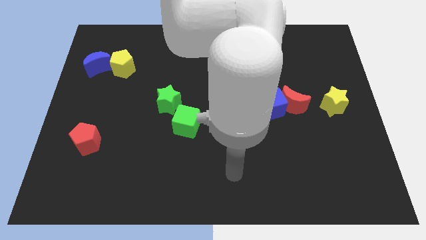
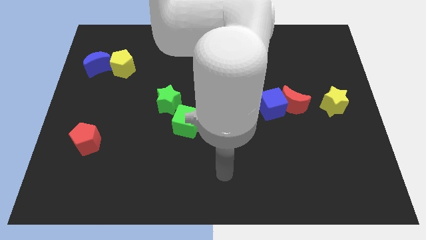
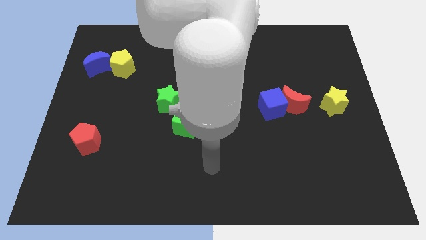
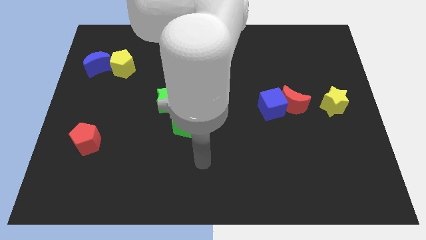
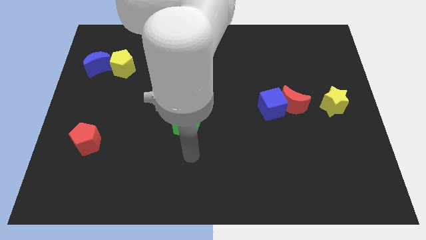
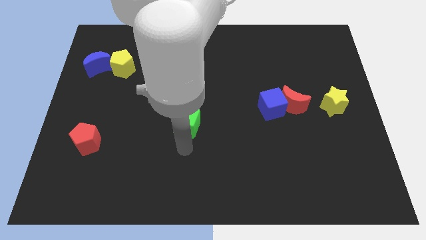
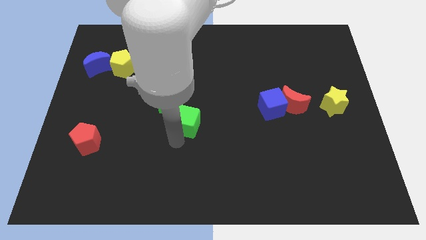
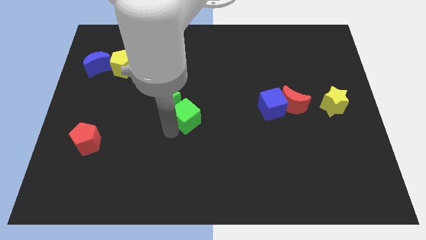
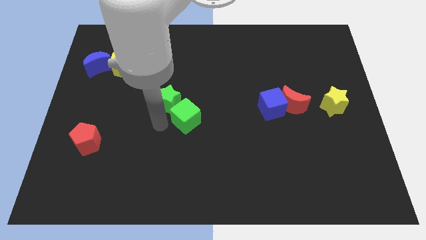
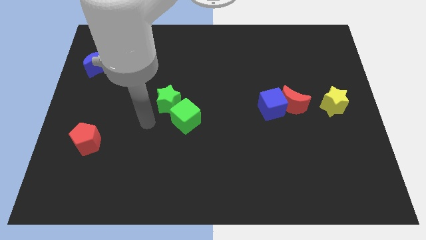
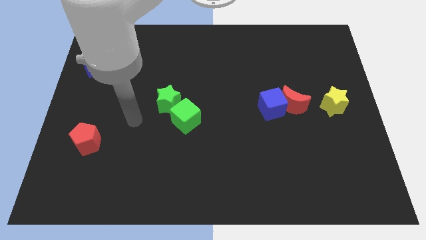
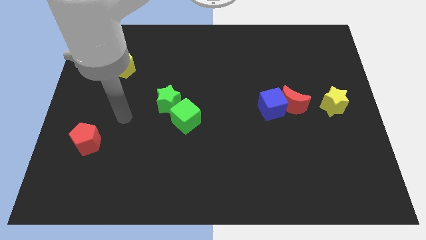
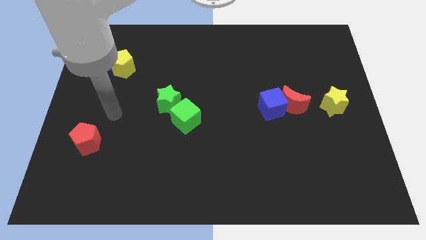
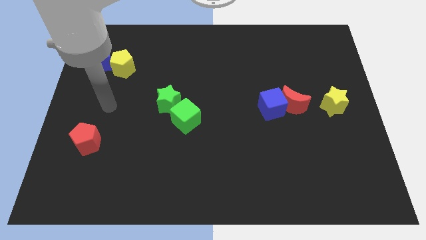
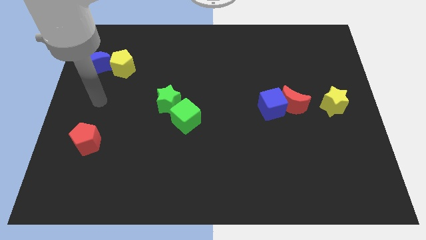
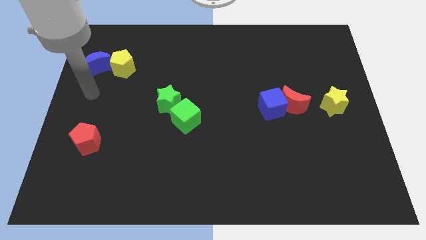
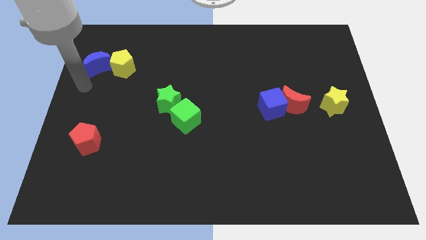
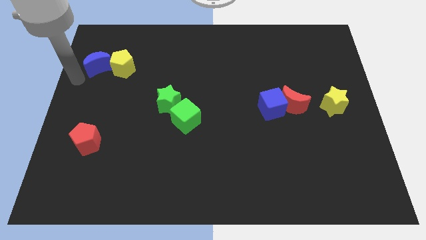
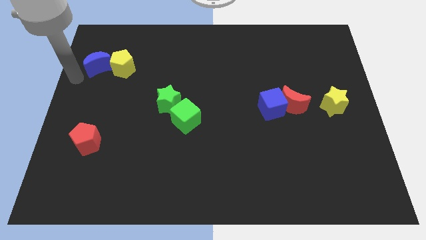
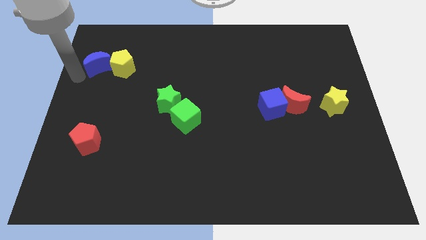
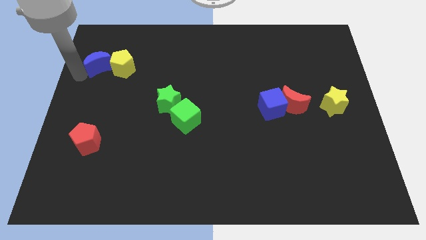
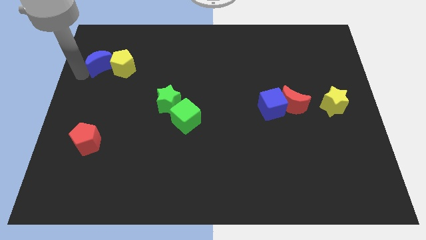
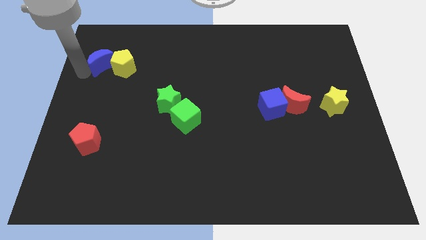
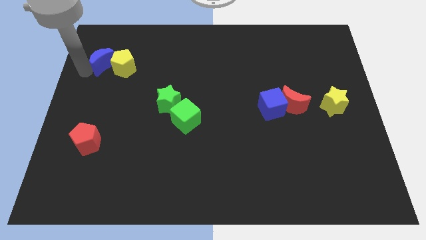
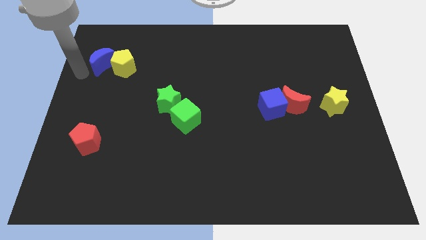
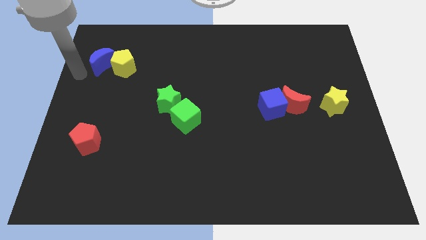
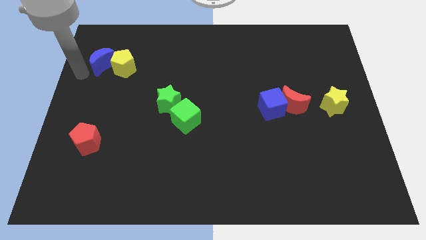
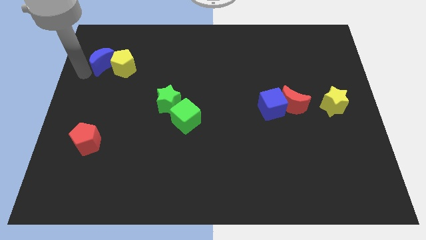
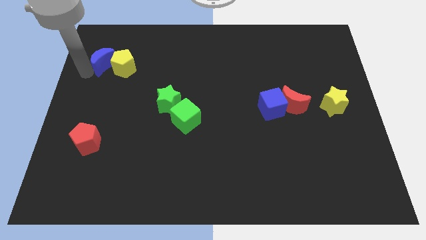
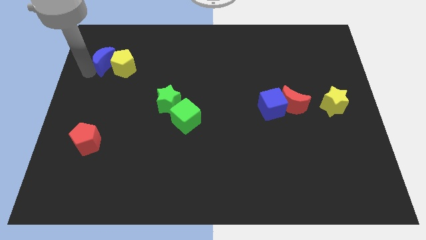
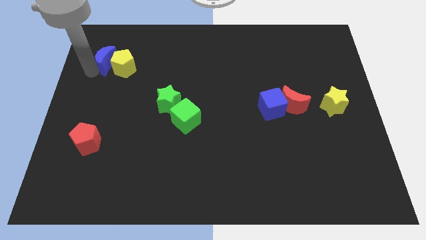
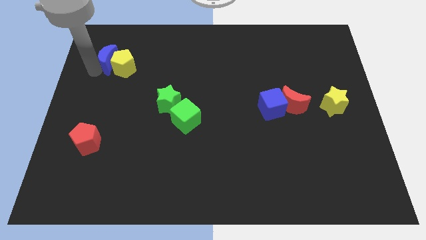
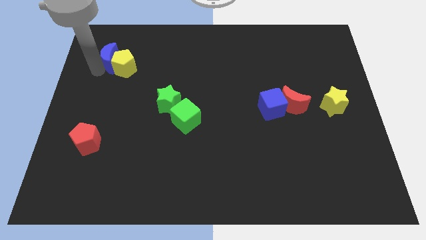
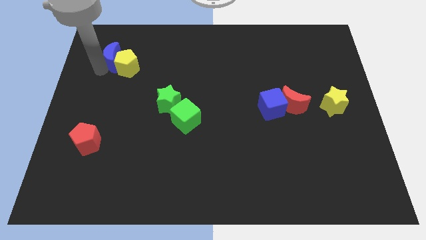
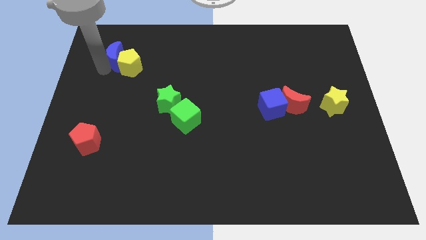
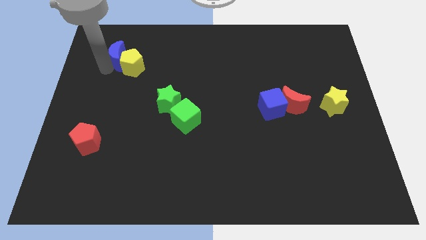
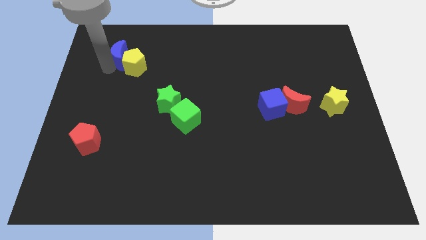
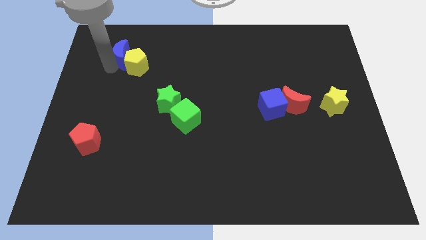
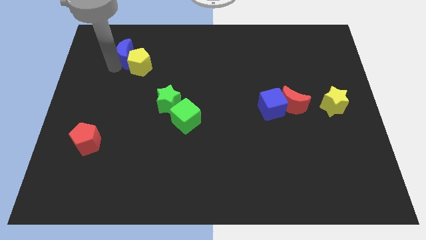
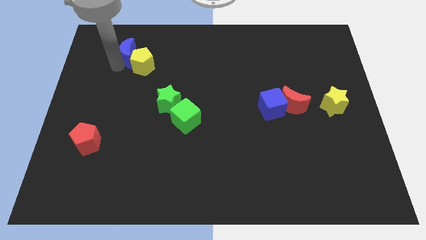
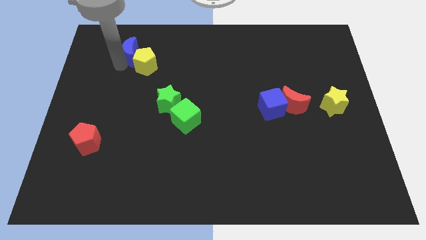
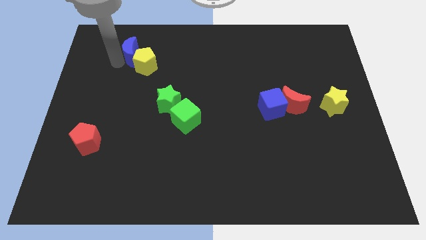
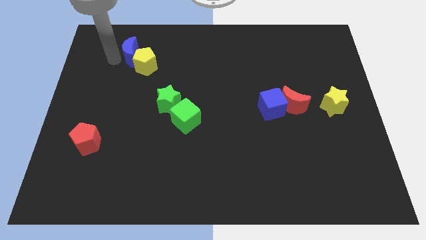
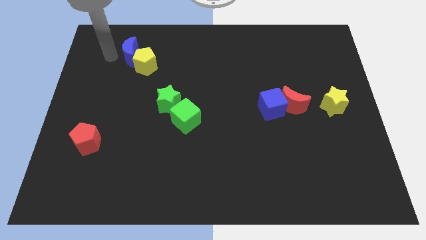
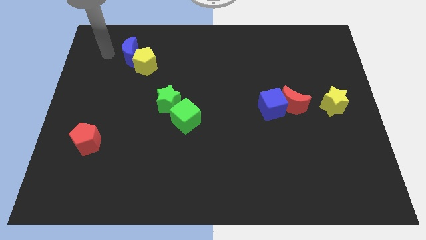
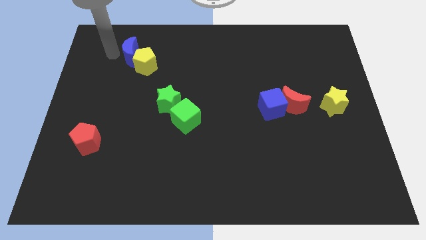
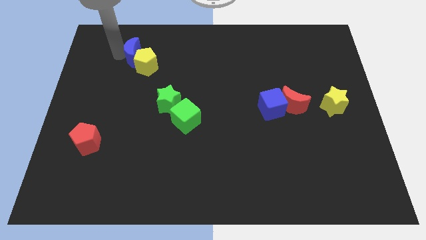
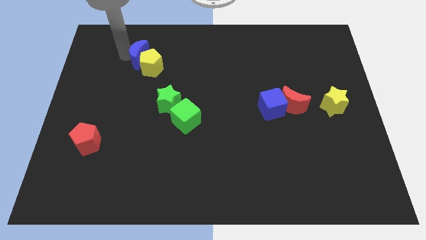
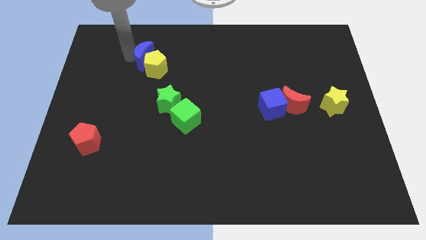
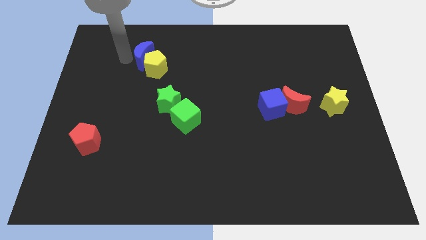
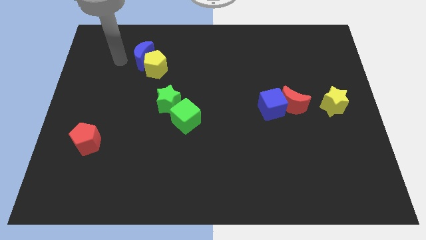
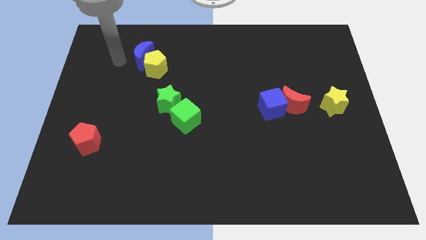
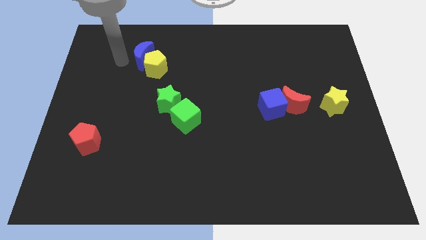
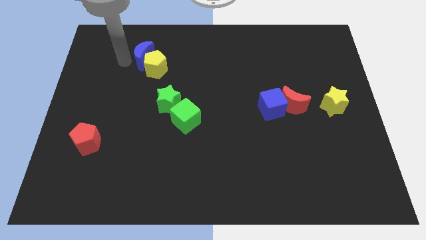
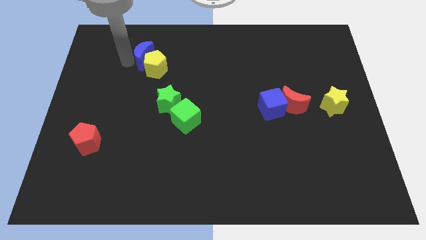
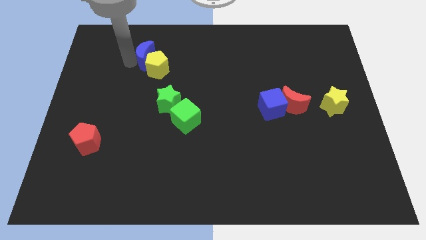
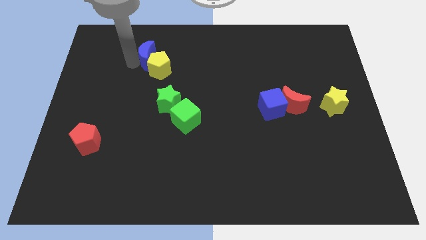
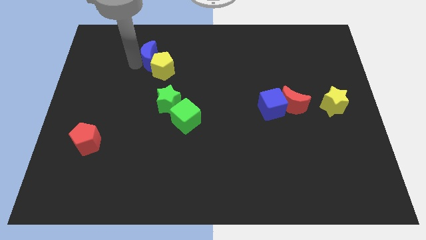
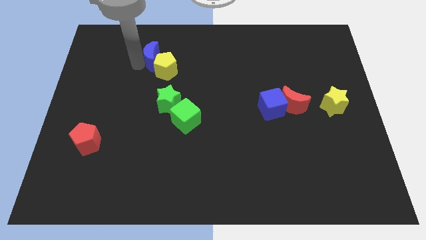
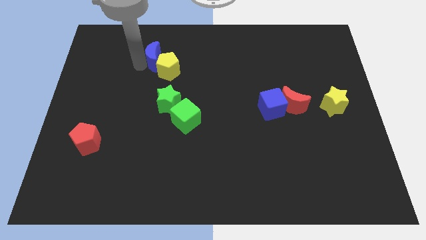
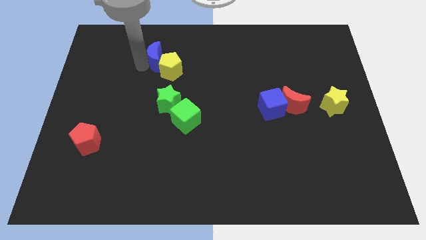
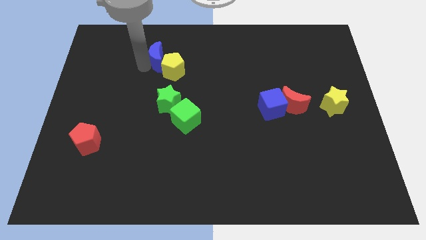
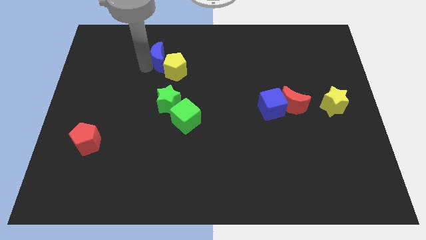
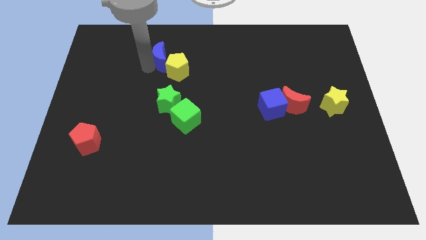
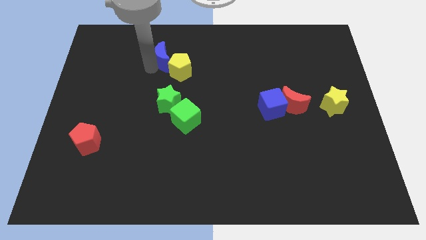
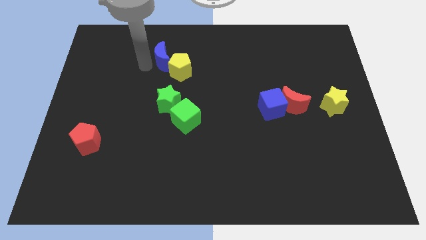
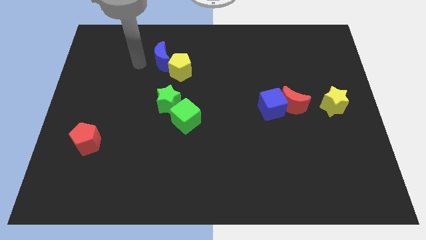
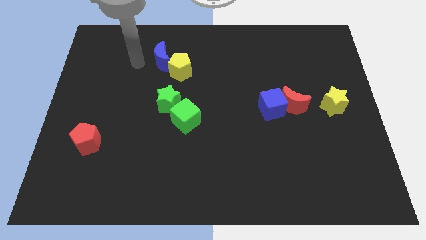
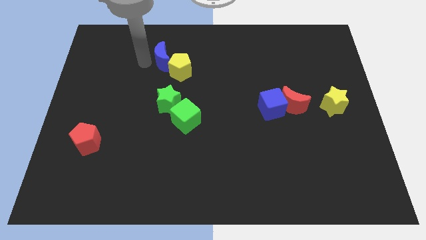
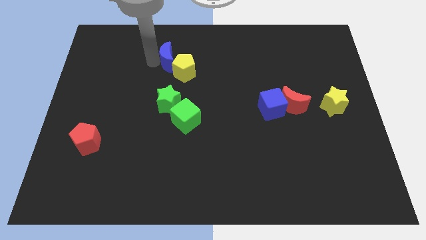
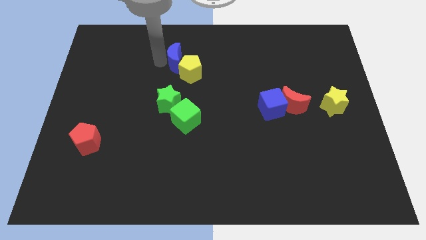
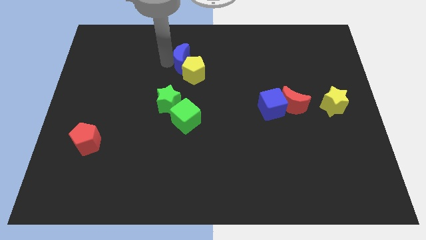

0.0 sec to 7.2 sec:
slide the blue moon to the right

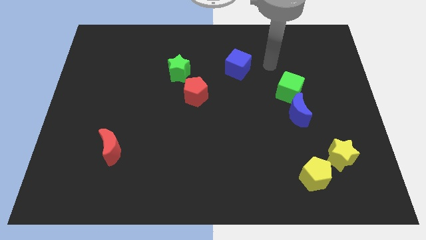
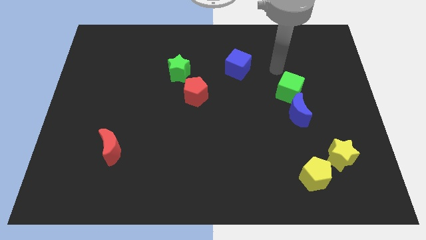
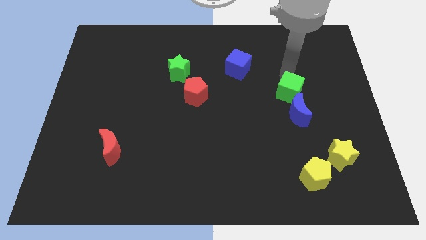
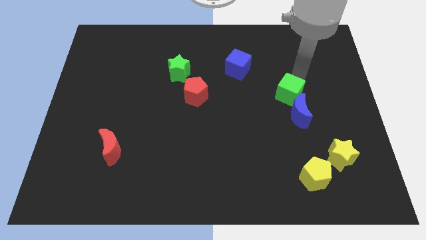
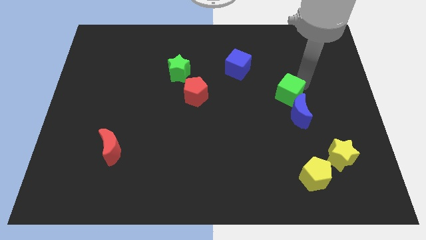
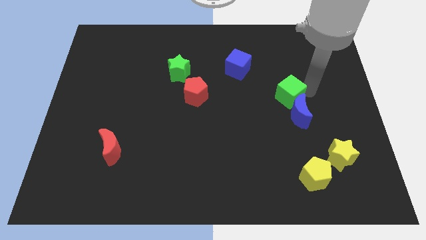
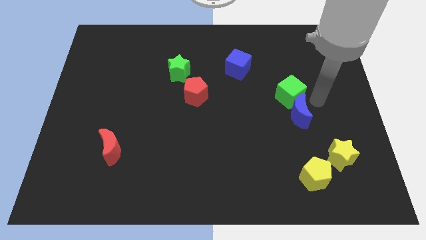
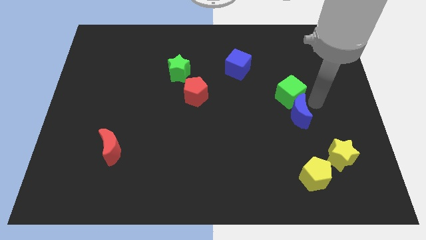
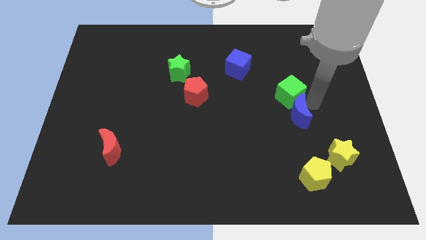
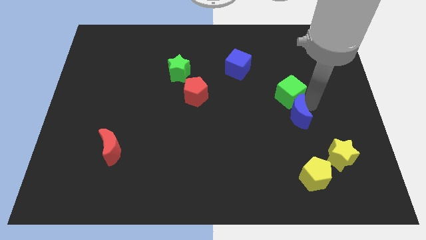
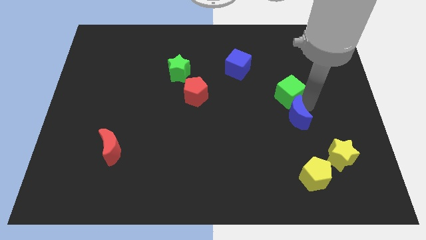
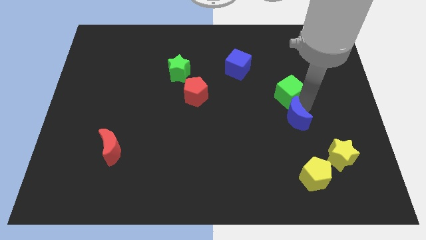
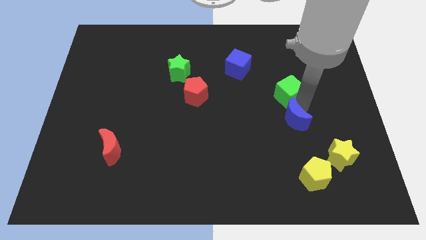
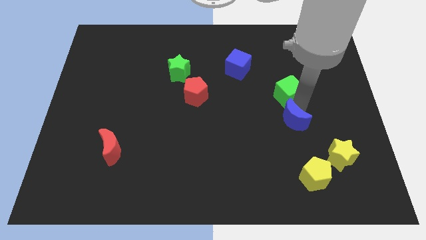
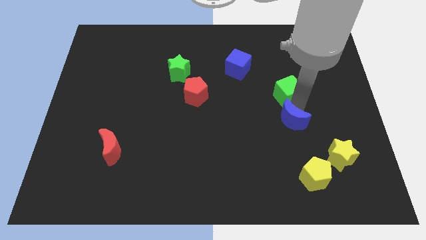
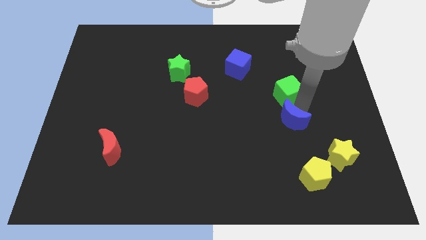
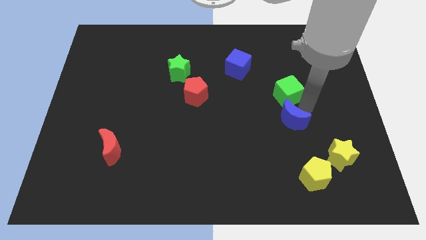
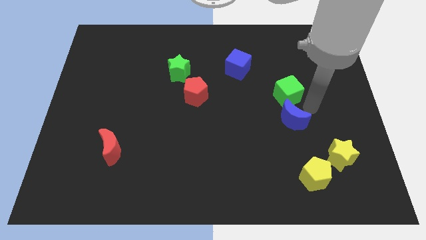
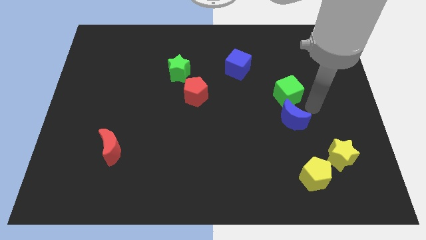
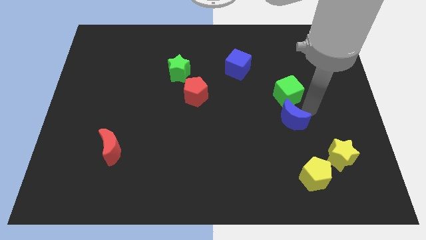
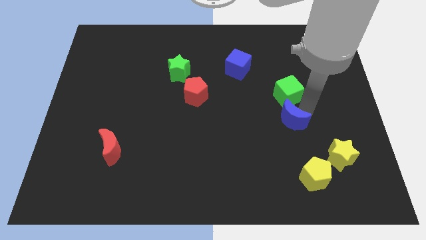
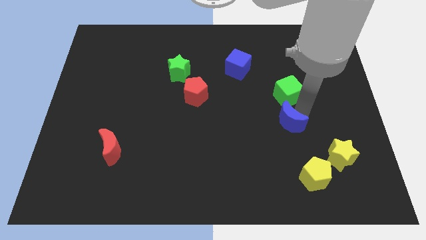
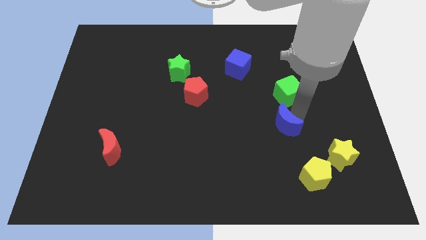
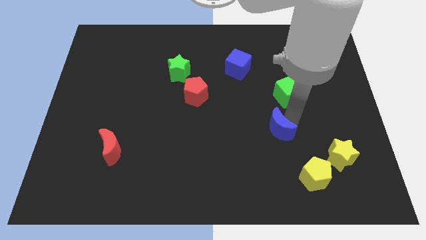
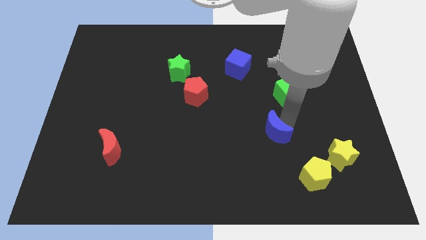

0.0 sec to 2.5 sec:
move the blue moon somewhat down and to the left
